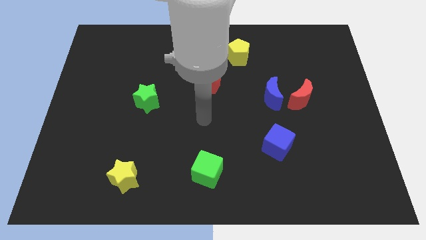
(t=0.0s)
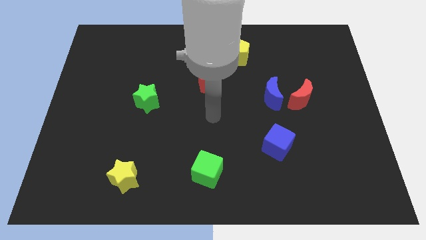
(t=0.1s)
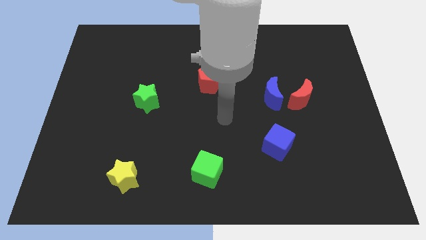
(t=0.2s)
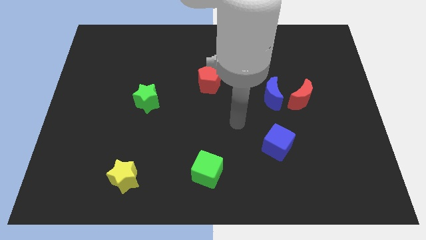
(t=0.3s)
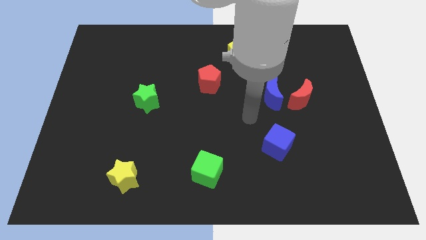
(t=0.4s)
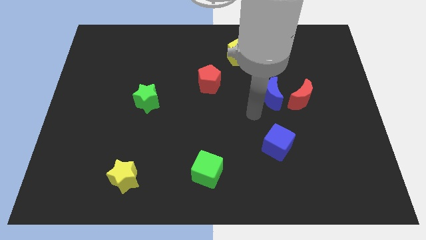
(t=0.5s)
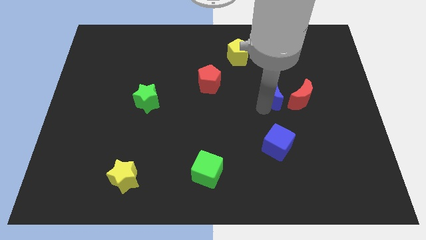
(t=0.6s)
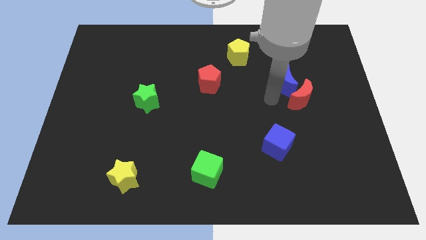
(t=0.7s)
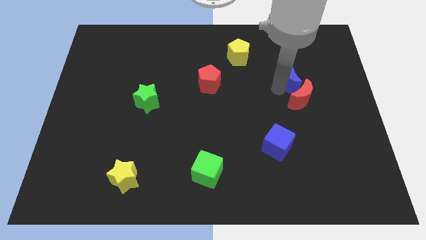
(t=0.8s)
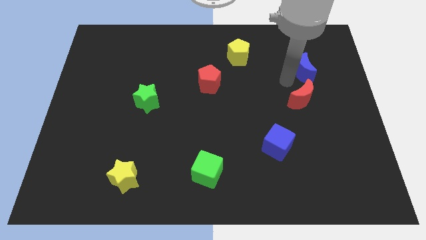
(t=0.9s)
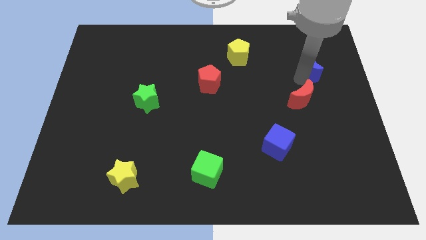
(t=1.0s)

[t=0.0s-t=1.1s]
pull the red moon apart from the blue moon

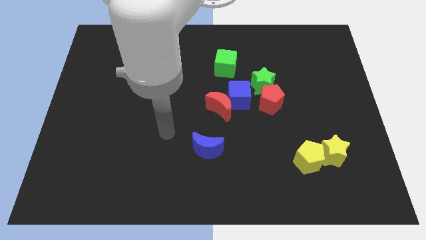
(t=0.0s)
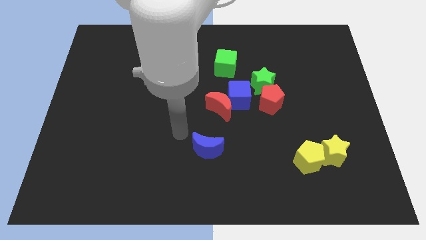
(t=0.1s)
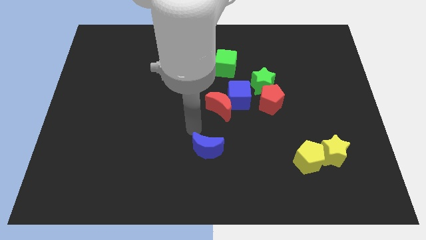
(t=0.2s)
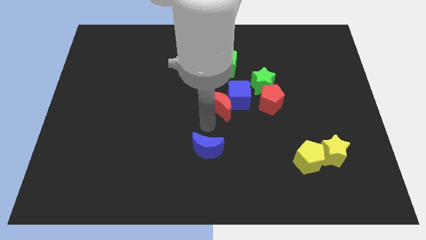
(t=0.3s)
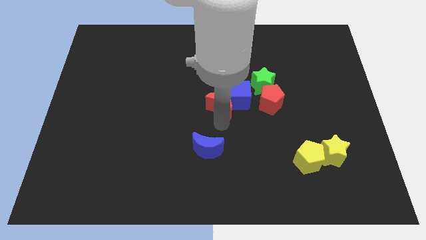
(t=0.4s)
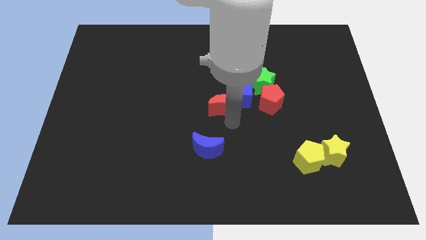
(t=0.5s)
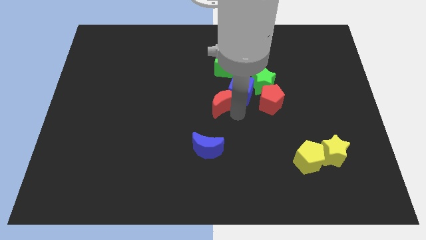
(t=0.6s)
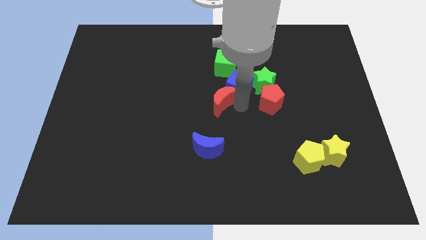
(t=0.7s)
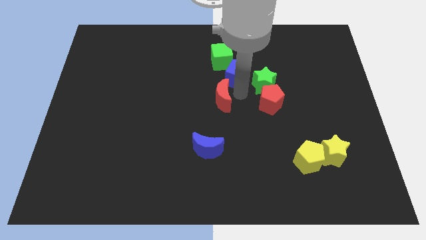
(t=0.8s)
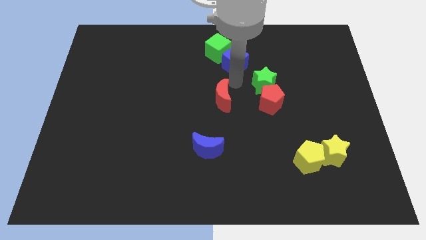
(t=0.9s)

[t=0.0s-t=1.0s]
move the red moon away from the blue cube

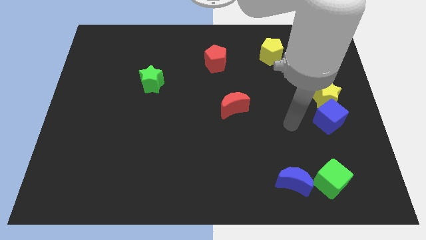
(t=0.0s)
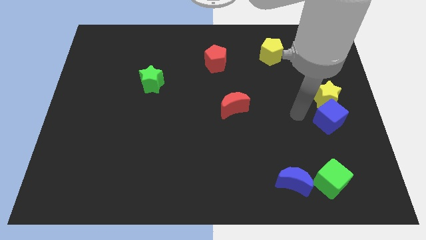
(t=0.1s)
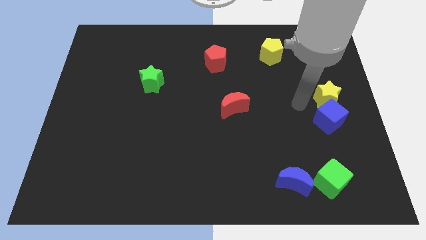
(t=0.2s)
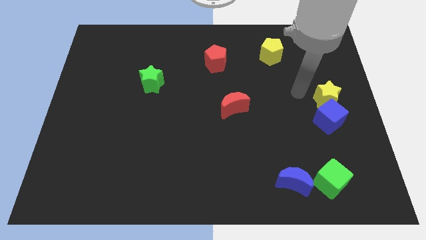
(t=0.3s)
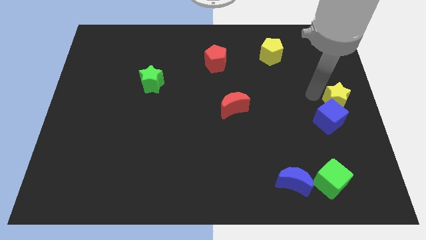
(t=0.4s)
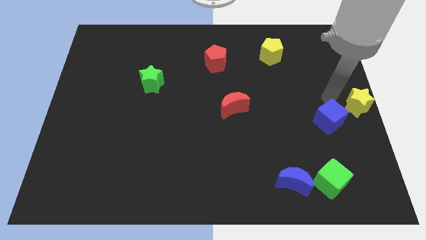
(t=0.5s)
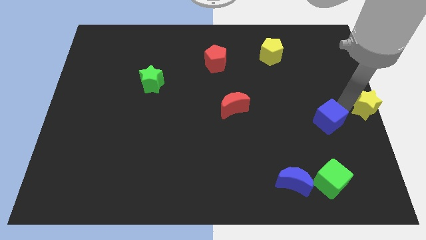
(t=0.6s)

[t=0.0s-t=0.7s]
separate the blue cube from the yellow star

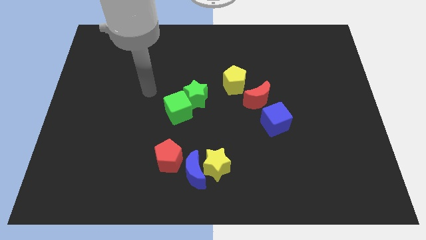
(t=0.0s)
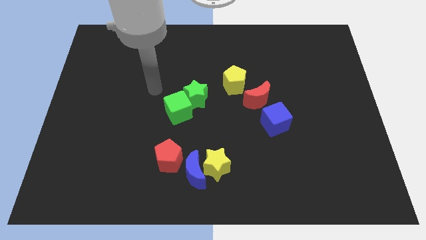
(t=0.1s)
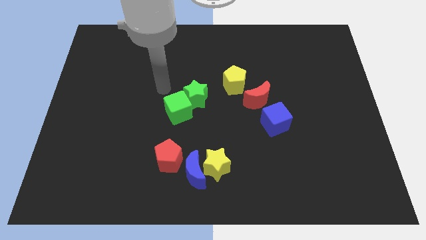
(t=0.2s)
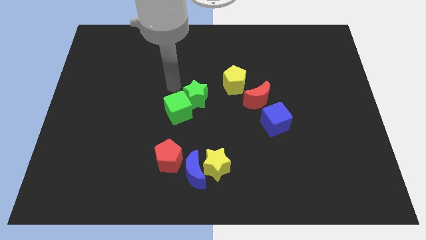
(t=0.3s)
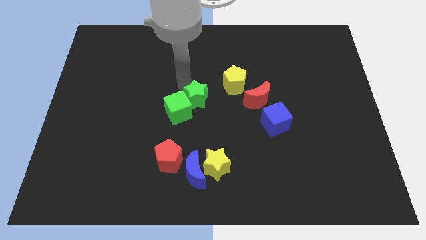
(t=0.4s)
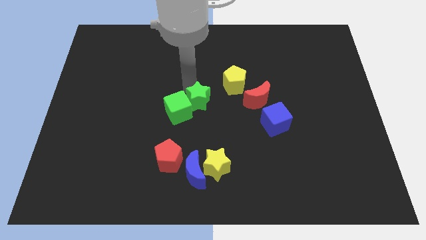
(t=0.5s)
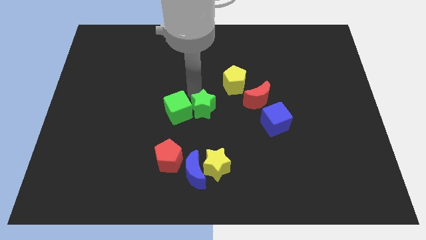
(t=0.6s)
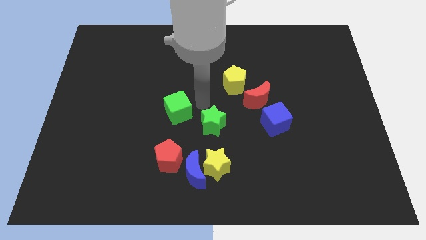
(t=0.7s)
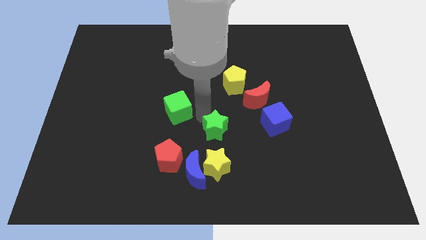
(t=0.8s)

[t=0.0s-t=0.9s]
separate the green cube from the green star

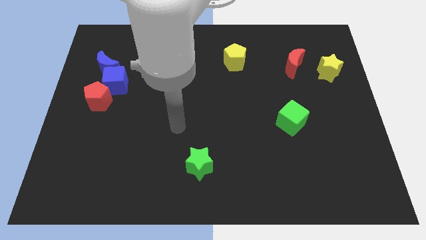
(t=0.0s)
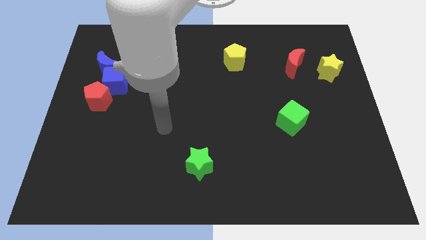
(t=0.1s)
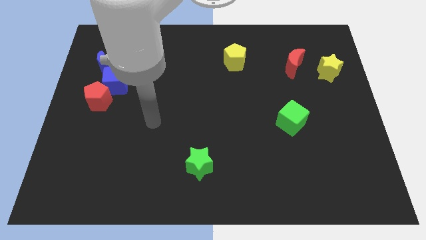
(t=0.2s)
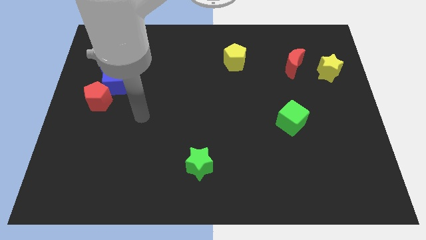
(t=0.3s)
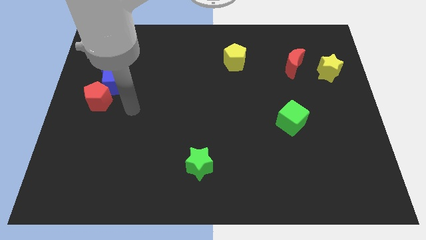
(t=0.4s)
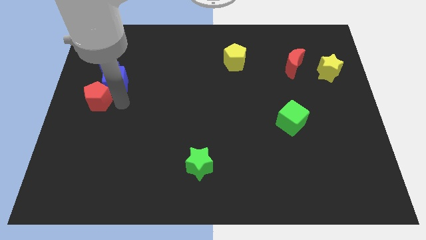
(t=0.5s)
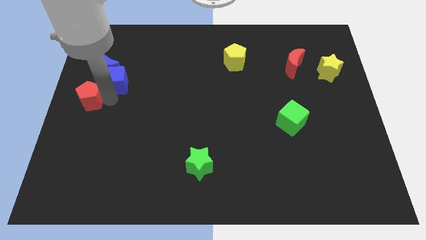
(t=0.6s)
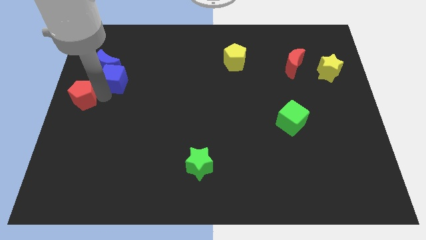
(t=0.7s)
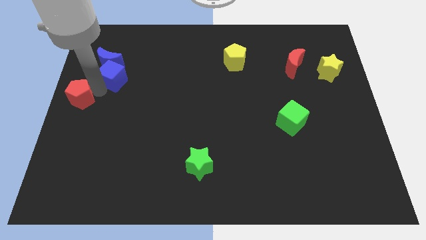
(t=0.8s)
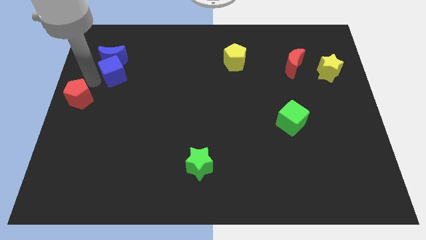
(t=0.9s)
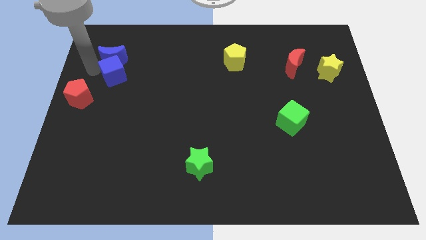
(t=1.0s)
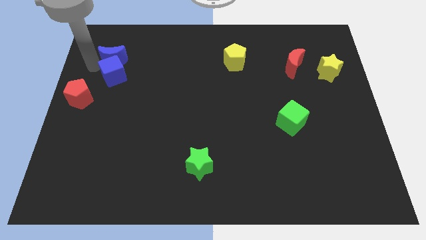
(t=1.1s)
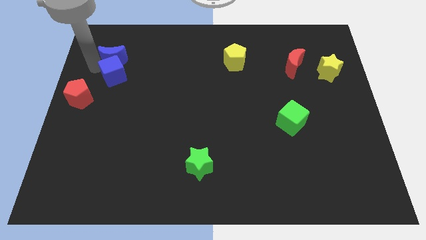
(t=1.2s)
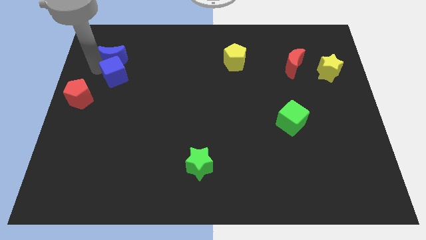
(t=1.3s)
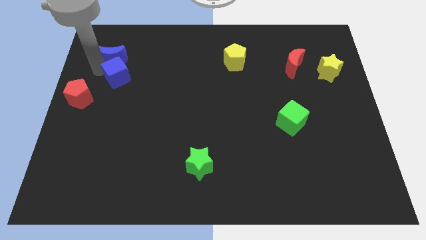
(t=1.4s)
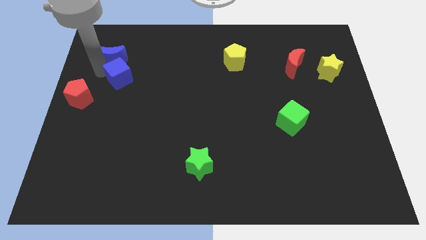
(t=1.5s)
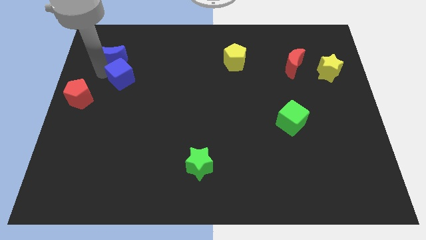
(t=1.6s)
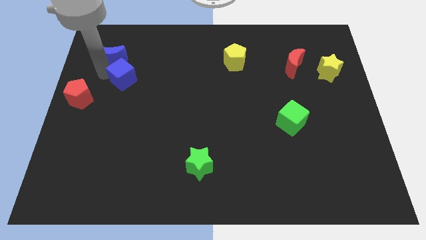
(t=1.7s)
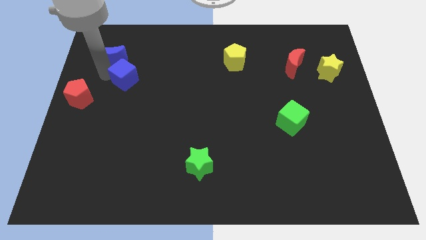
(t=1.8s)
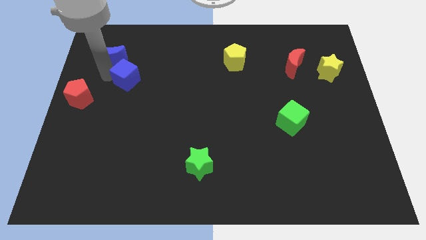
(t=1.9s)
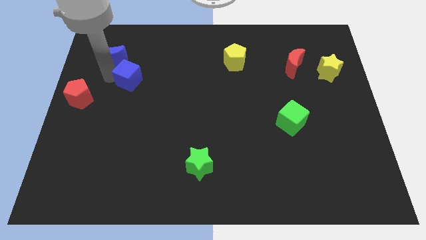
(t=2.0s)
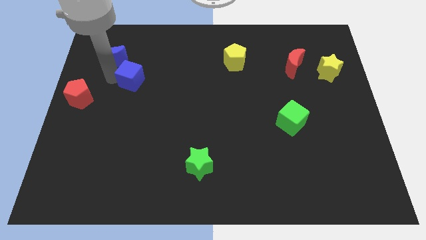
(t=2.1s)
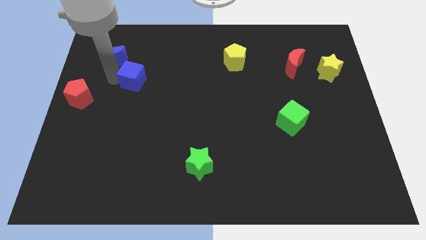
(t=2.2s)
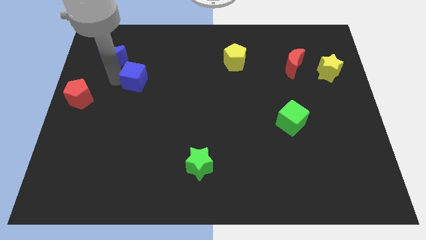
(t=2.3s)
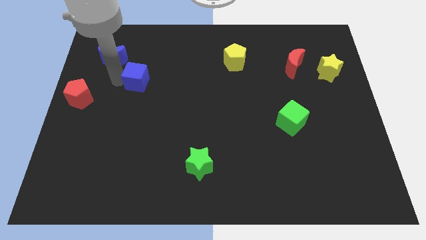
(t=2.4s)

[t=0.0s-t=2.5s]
move the blue cube away from the blue moon and red pentagon

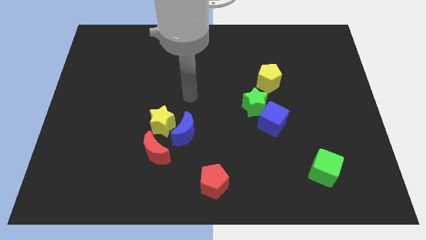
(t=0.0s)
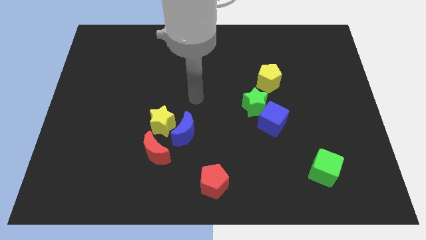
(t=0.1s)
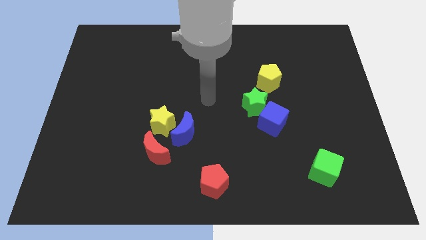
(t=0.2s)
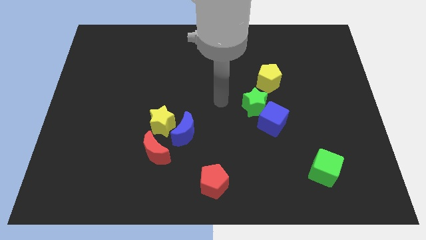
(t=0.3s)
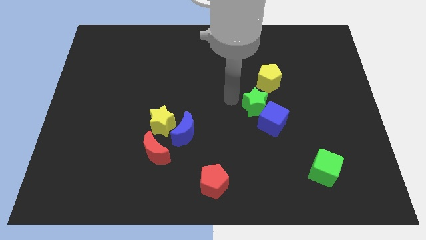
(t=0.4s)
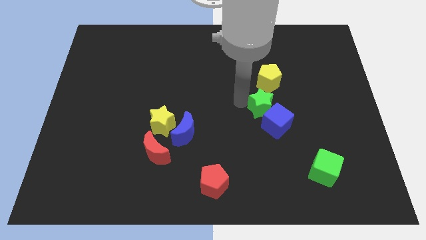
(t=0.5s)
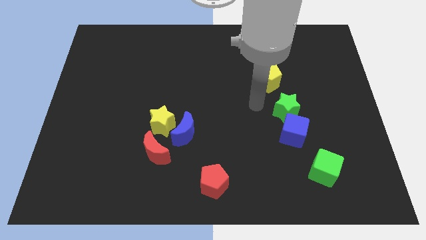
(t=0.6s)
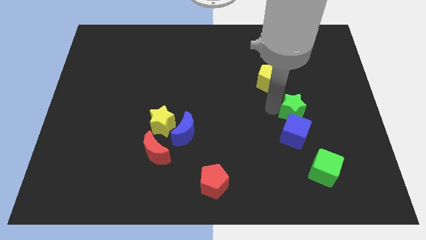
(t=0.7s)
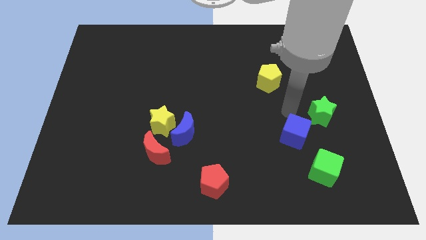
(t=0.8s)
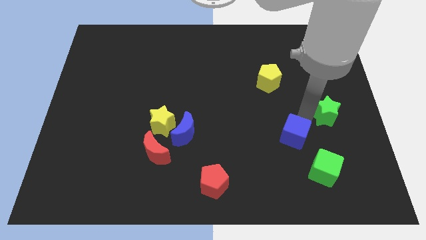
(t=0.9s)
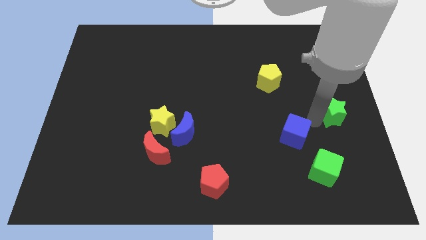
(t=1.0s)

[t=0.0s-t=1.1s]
pull the blue cube apart from the green star

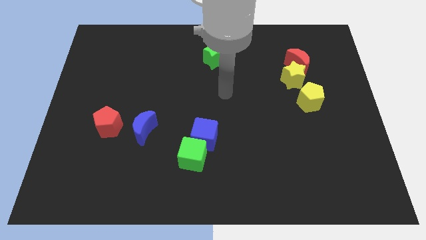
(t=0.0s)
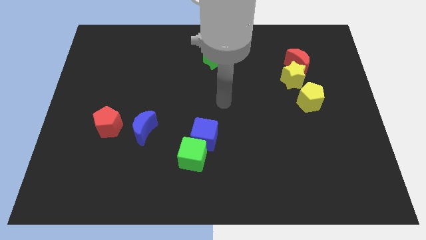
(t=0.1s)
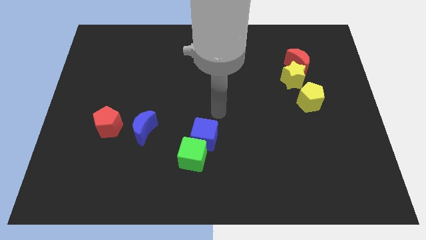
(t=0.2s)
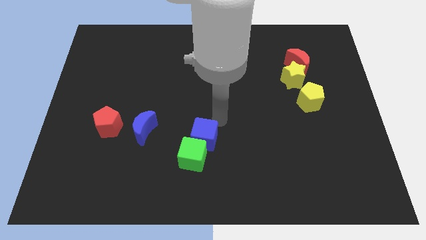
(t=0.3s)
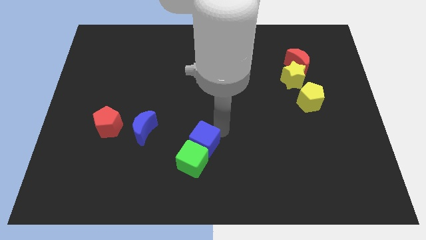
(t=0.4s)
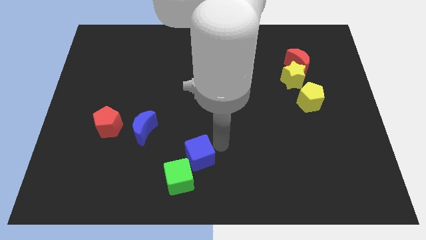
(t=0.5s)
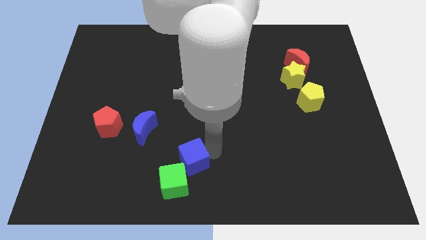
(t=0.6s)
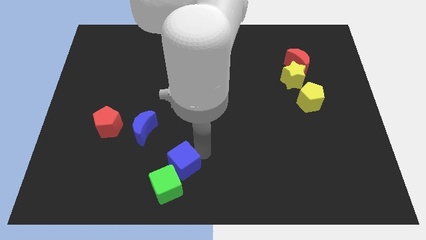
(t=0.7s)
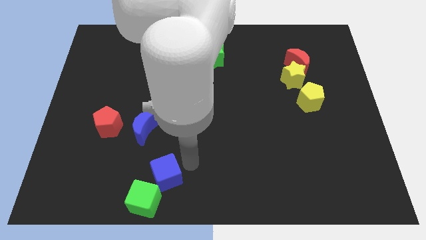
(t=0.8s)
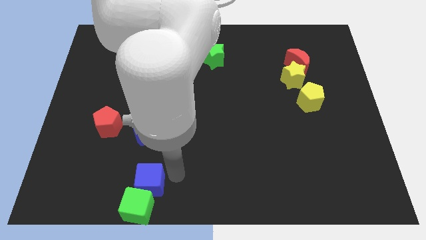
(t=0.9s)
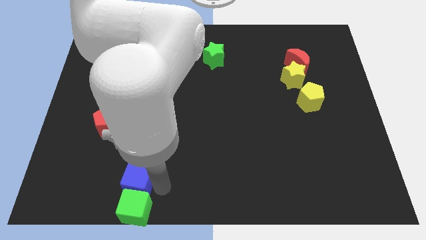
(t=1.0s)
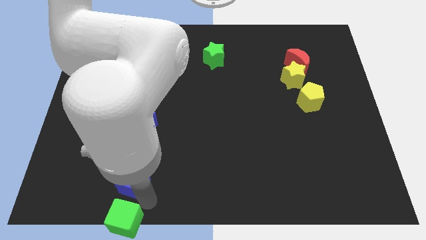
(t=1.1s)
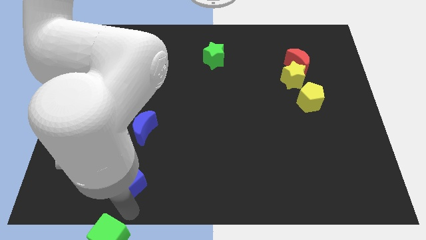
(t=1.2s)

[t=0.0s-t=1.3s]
pull the blue cube apart from the green cube

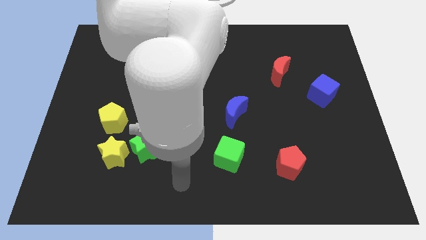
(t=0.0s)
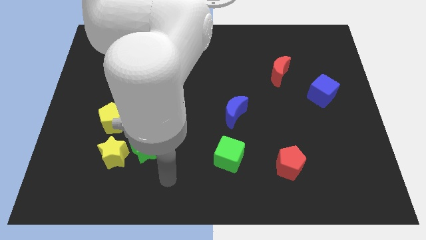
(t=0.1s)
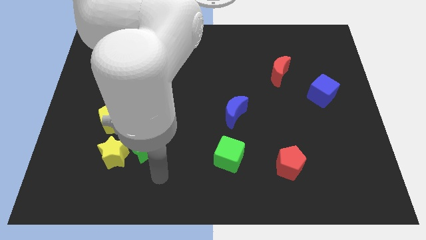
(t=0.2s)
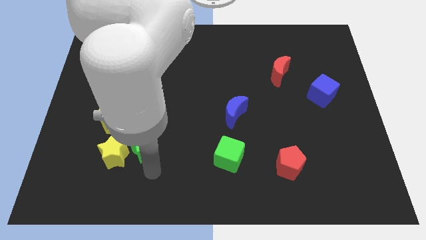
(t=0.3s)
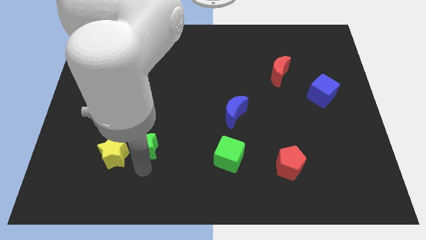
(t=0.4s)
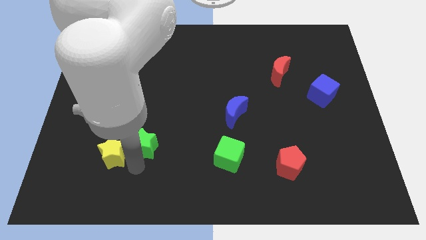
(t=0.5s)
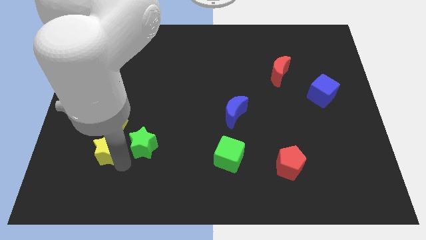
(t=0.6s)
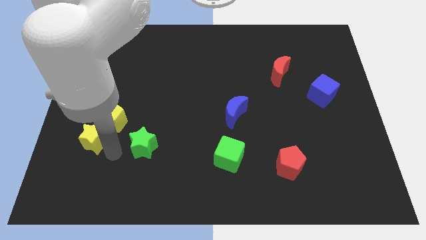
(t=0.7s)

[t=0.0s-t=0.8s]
pull the green star apart from the yellow star
